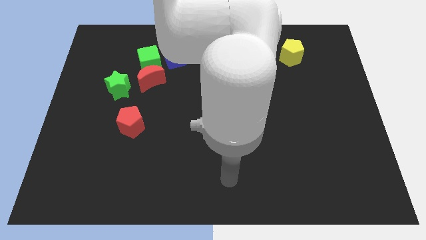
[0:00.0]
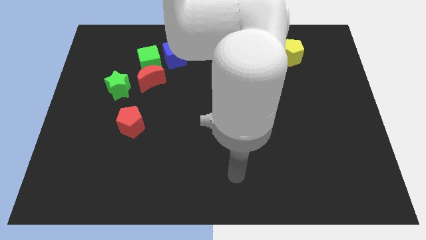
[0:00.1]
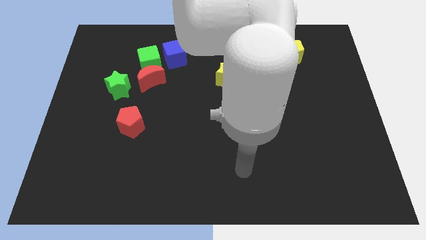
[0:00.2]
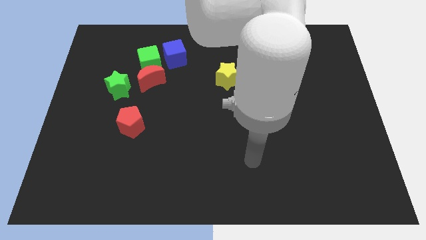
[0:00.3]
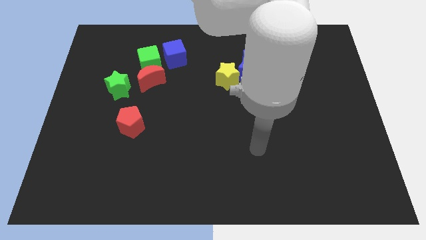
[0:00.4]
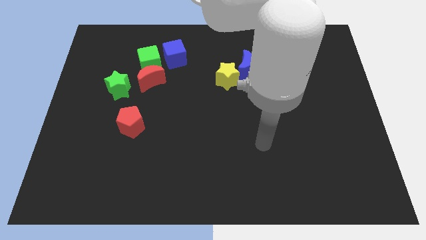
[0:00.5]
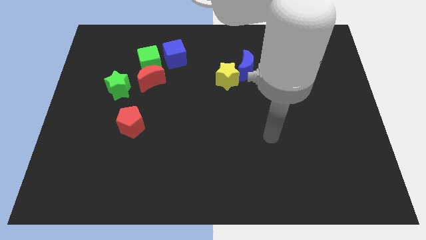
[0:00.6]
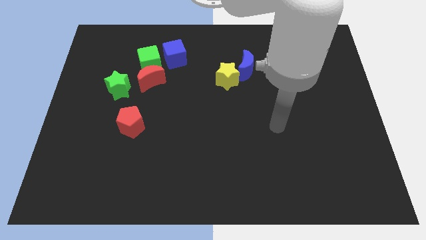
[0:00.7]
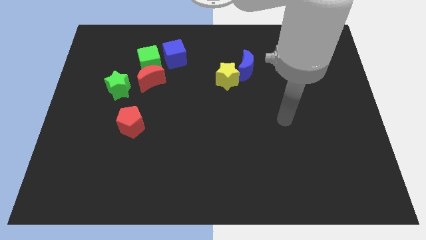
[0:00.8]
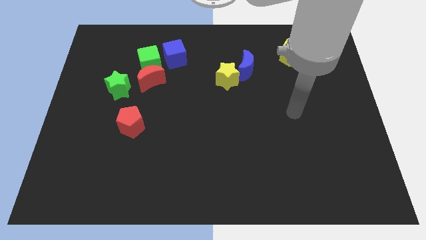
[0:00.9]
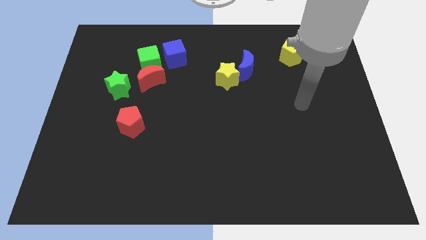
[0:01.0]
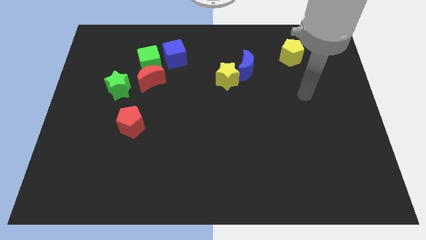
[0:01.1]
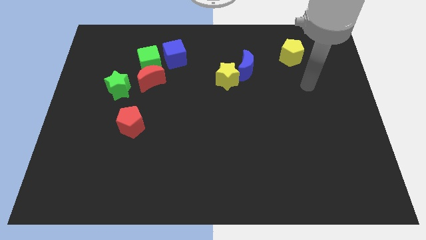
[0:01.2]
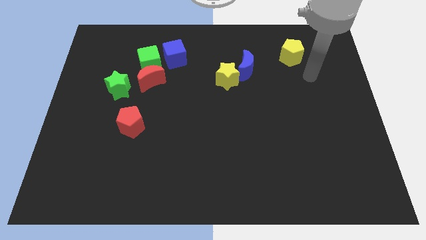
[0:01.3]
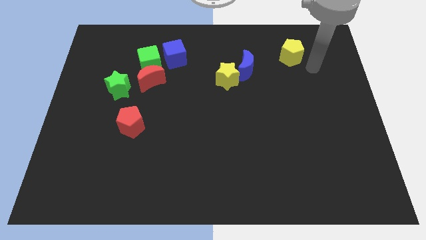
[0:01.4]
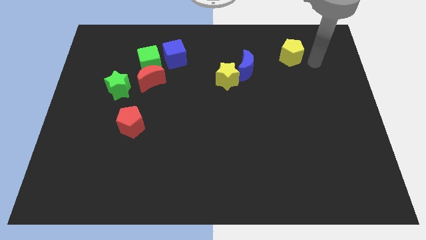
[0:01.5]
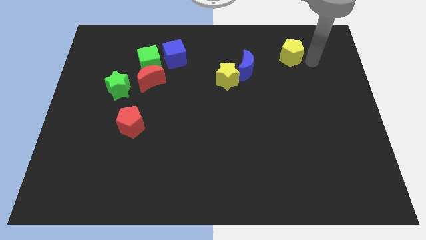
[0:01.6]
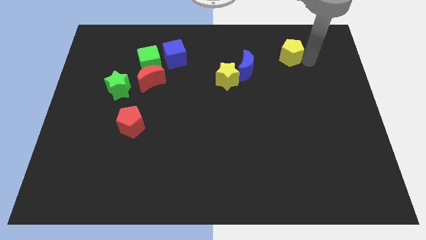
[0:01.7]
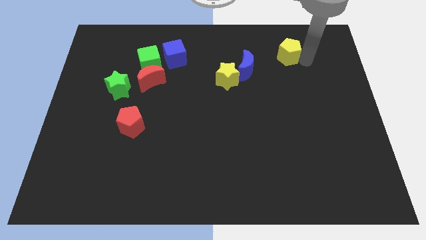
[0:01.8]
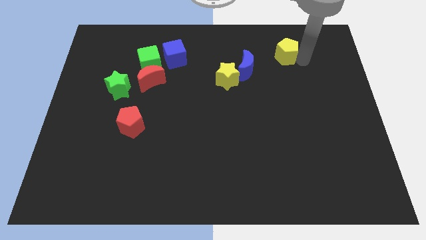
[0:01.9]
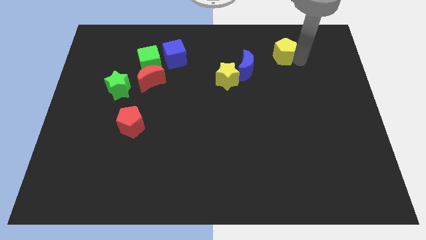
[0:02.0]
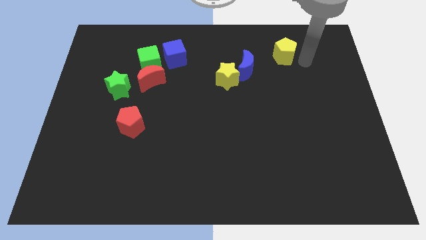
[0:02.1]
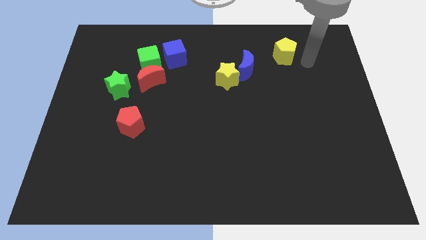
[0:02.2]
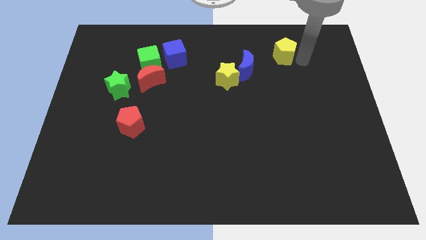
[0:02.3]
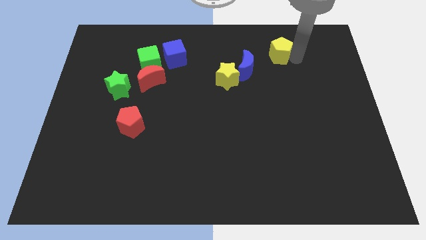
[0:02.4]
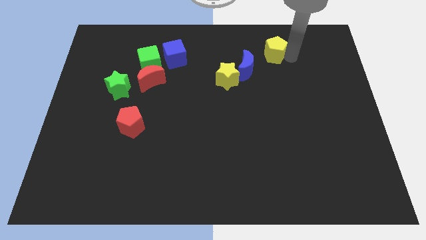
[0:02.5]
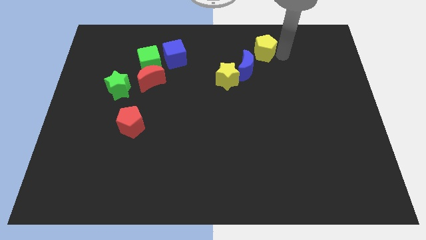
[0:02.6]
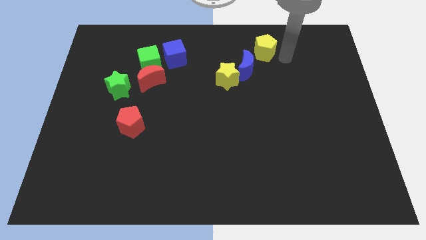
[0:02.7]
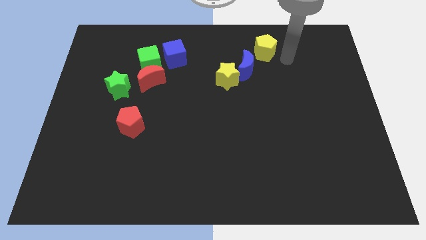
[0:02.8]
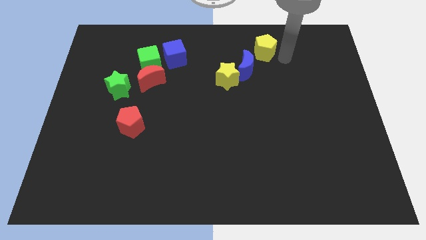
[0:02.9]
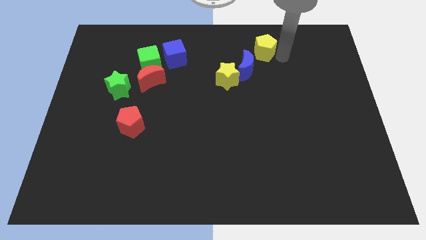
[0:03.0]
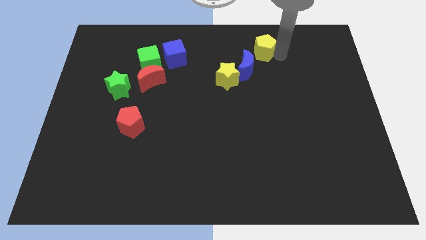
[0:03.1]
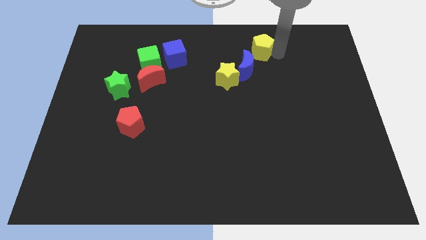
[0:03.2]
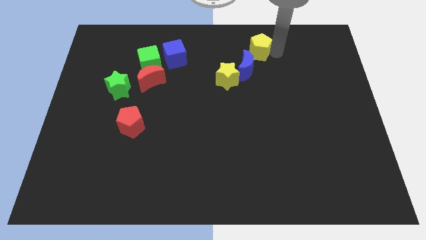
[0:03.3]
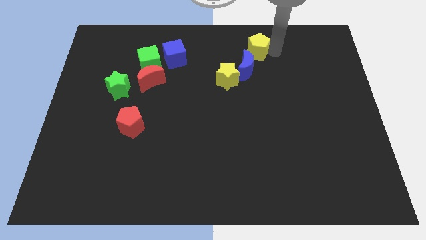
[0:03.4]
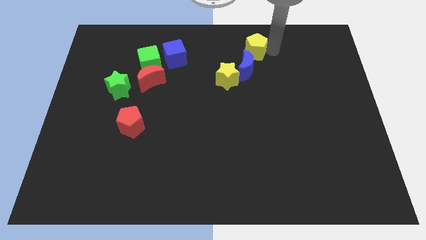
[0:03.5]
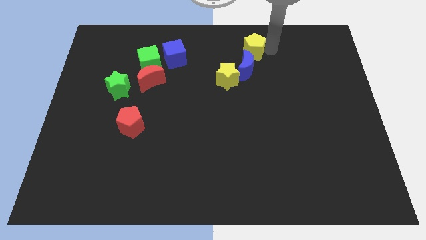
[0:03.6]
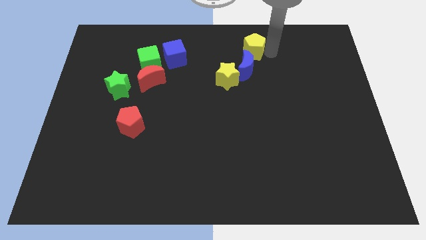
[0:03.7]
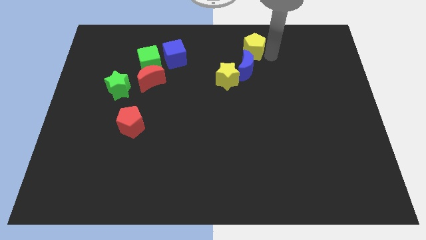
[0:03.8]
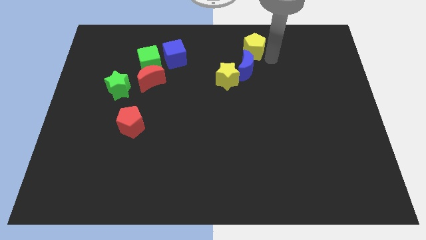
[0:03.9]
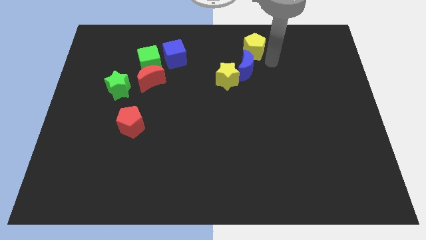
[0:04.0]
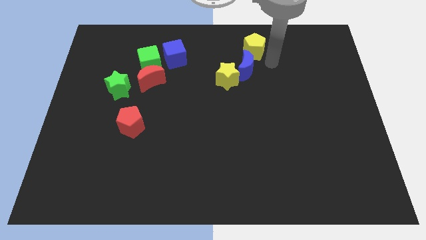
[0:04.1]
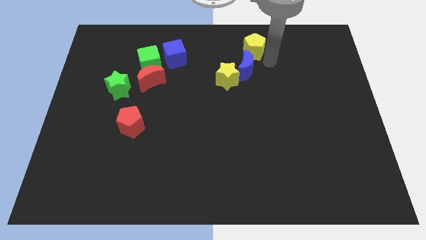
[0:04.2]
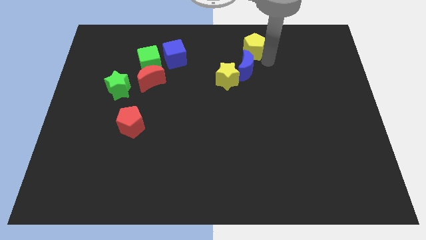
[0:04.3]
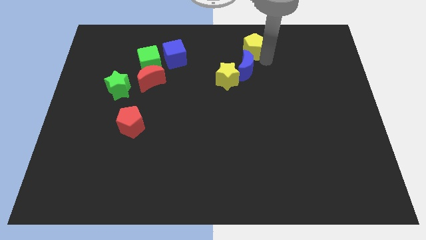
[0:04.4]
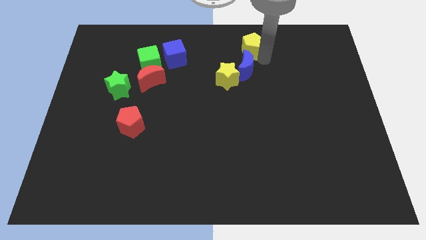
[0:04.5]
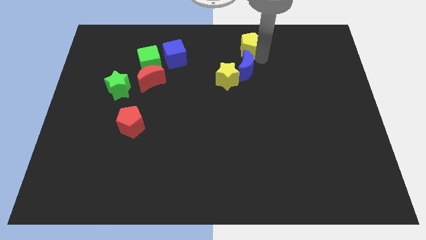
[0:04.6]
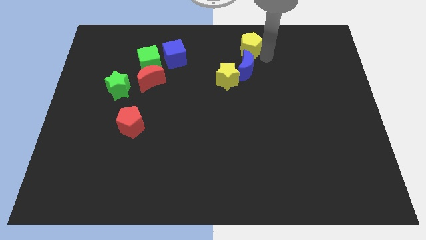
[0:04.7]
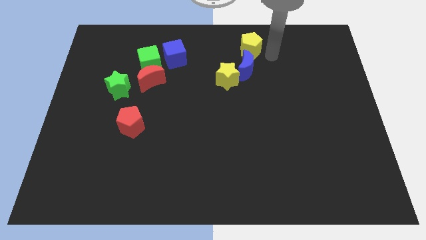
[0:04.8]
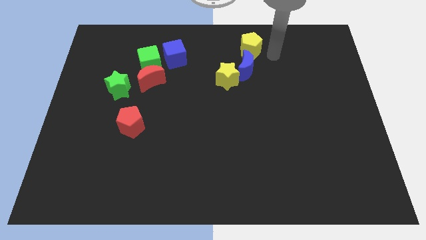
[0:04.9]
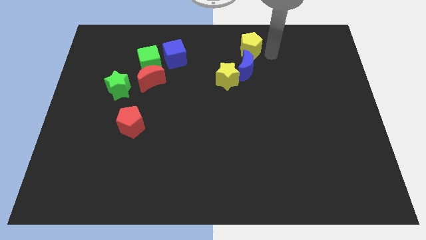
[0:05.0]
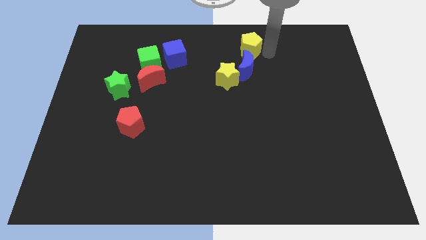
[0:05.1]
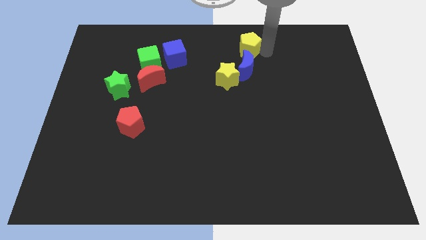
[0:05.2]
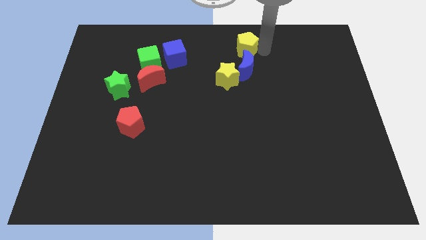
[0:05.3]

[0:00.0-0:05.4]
put the yellow pentagon to the towards your base
